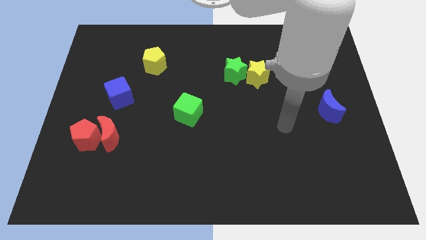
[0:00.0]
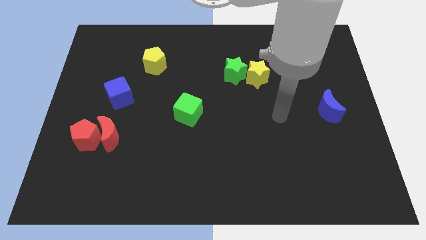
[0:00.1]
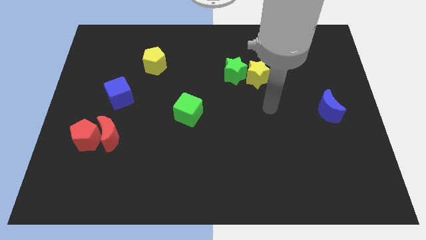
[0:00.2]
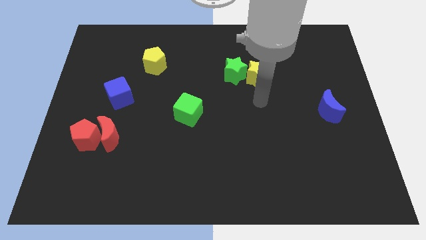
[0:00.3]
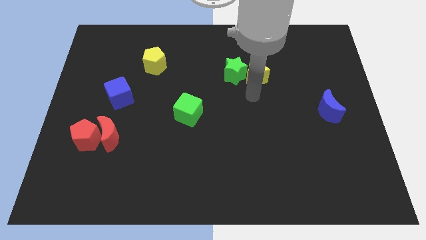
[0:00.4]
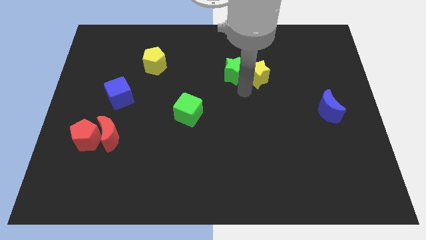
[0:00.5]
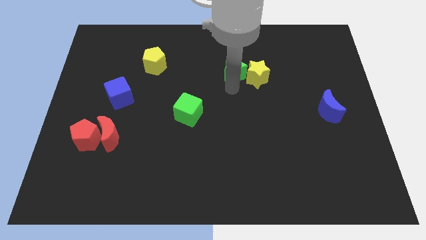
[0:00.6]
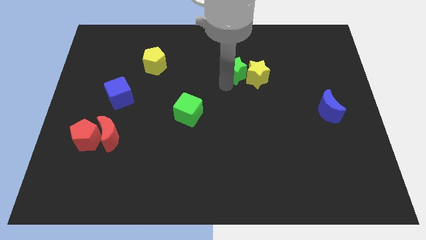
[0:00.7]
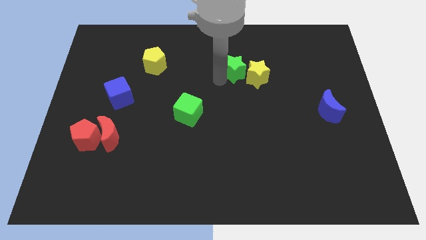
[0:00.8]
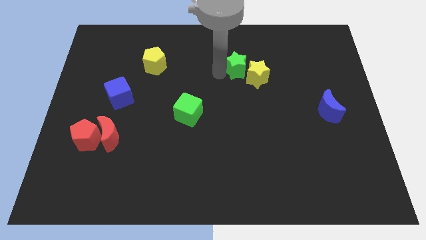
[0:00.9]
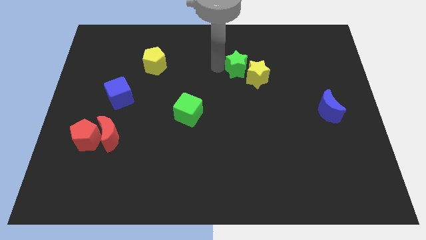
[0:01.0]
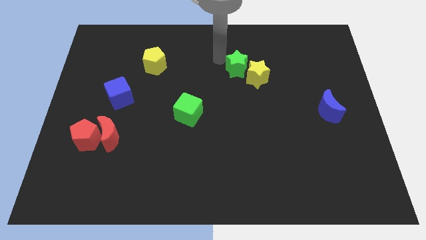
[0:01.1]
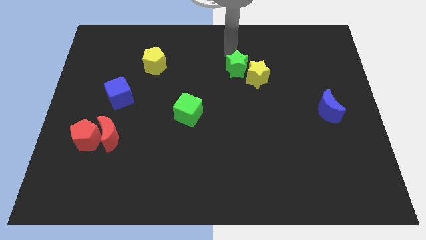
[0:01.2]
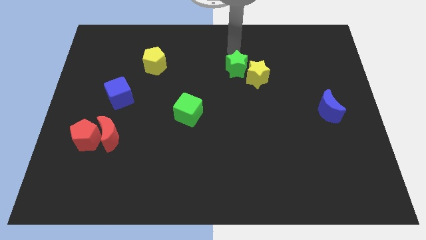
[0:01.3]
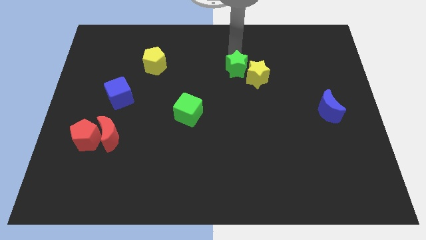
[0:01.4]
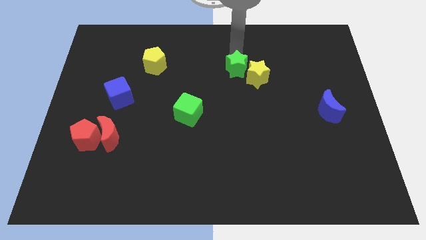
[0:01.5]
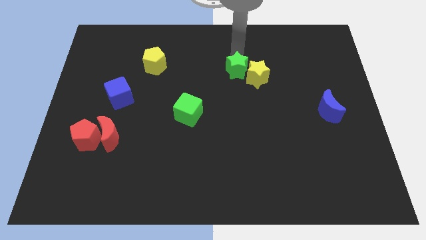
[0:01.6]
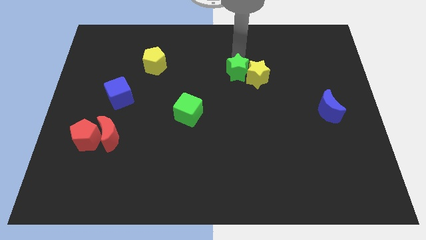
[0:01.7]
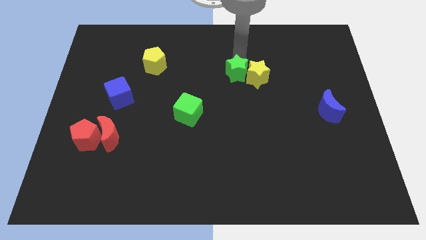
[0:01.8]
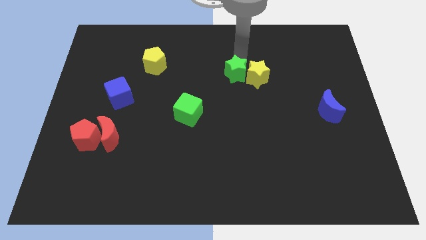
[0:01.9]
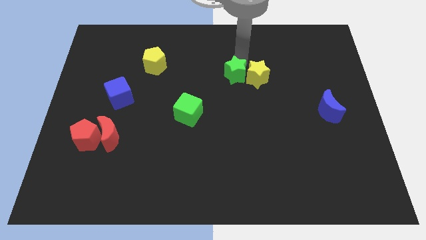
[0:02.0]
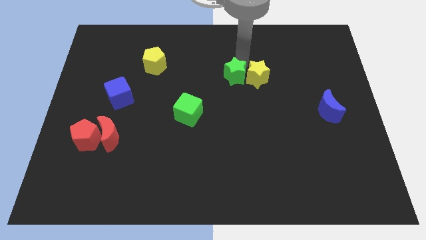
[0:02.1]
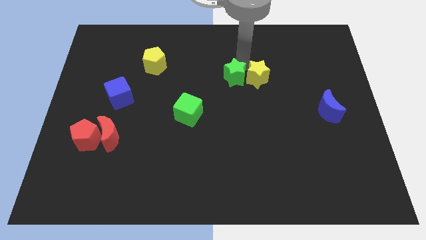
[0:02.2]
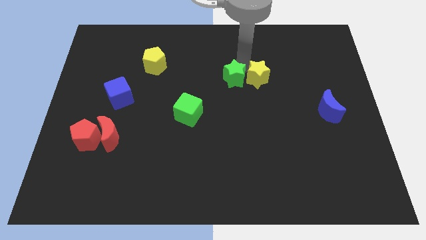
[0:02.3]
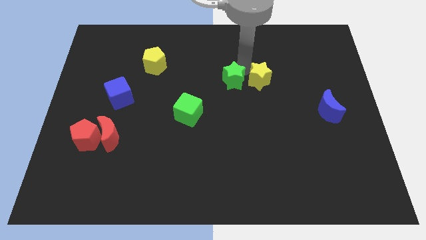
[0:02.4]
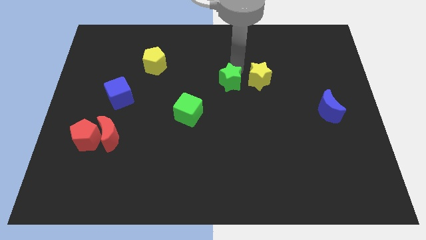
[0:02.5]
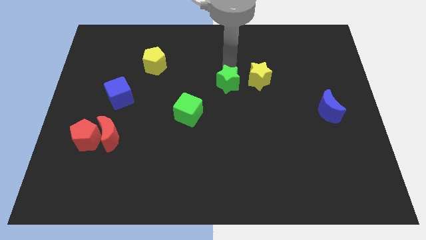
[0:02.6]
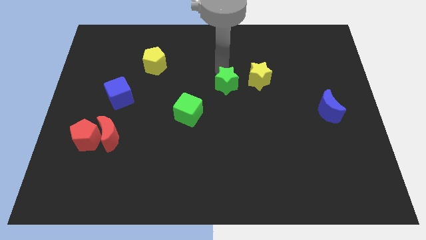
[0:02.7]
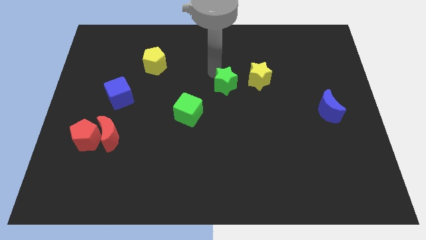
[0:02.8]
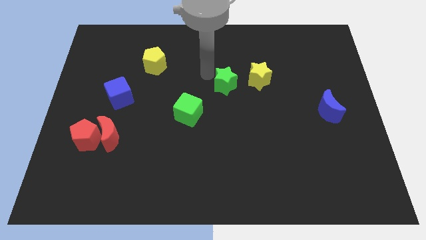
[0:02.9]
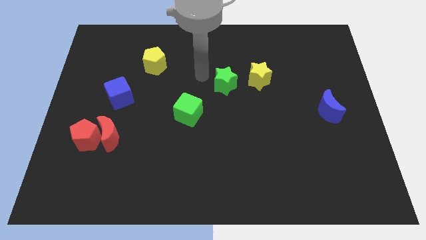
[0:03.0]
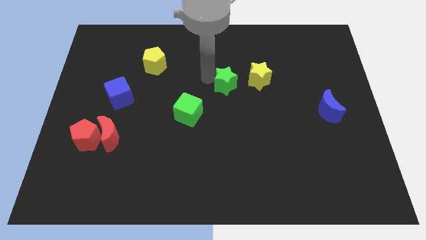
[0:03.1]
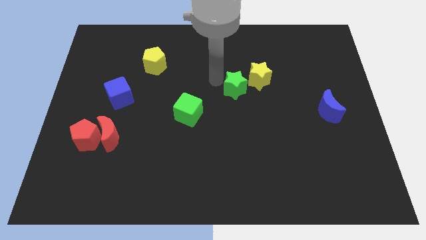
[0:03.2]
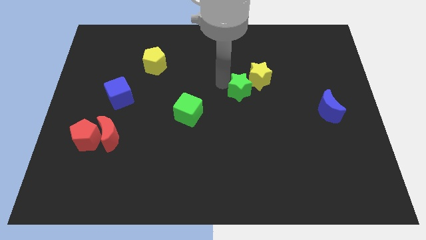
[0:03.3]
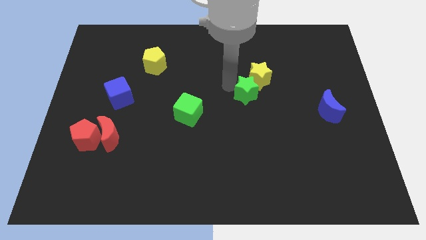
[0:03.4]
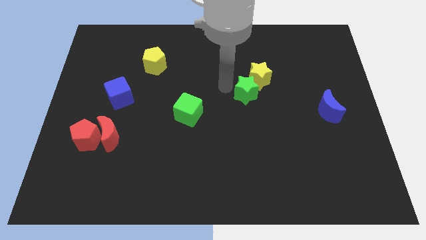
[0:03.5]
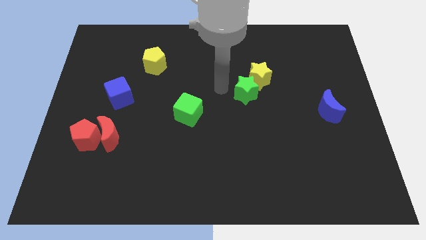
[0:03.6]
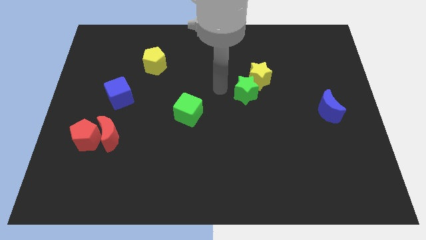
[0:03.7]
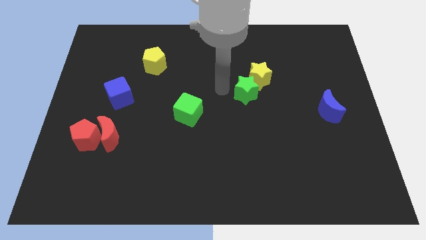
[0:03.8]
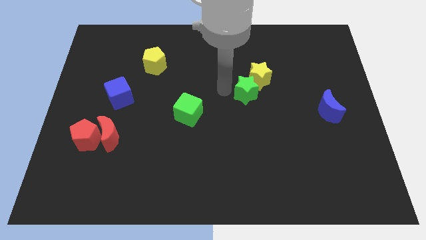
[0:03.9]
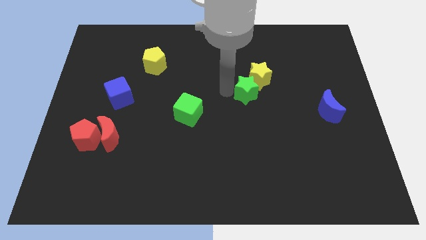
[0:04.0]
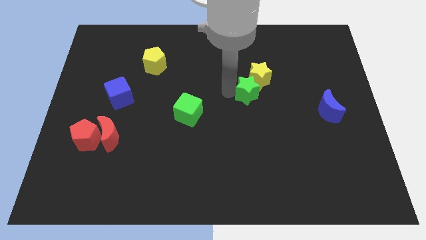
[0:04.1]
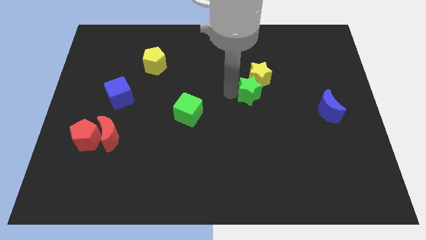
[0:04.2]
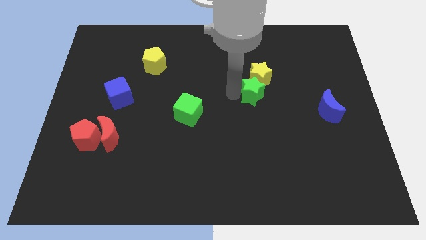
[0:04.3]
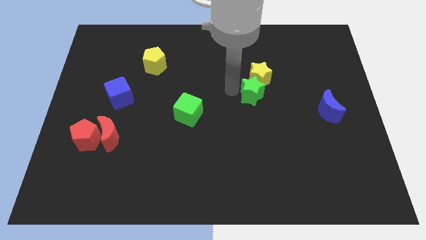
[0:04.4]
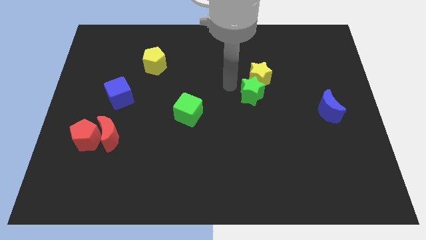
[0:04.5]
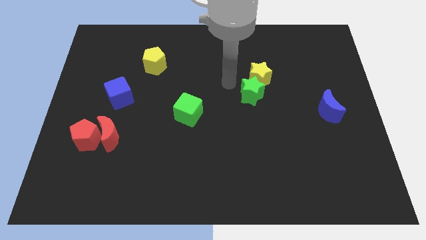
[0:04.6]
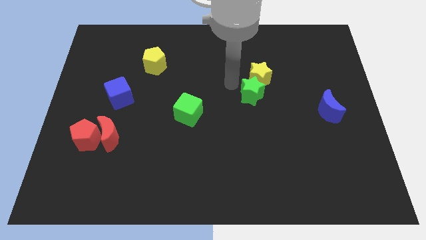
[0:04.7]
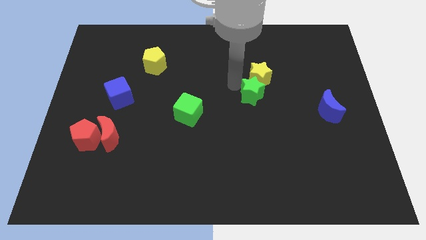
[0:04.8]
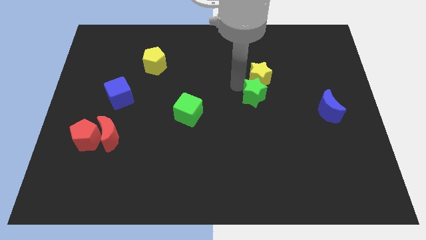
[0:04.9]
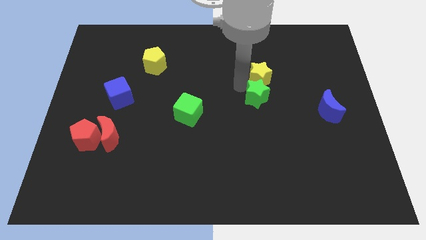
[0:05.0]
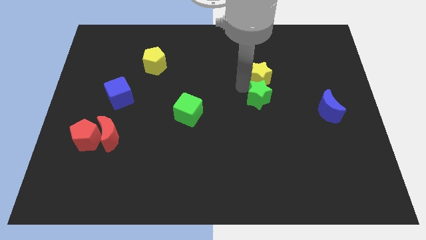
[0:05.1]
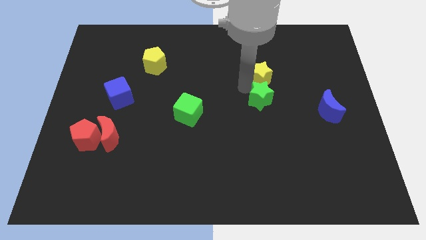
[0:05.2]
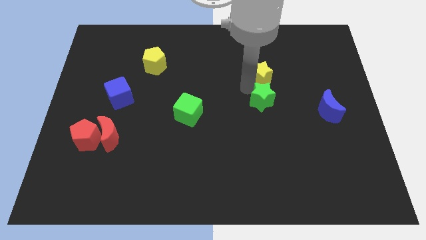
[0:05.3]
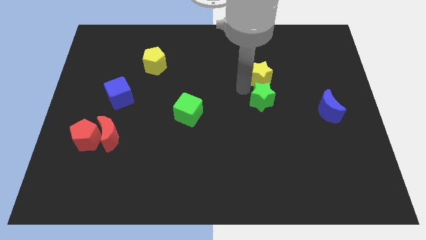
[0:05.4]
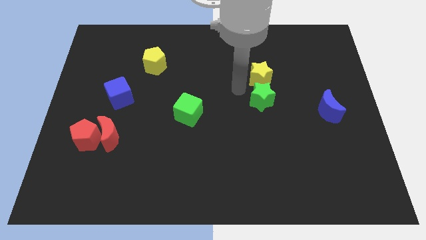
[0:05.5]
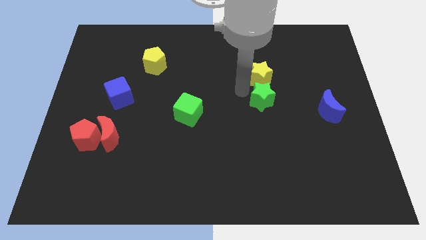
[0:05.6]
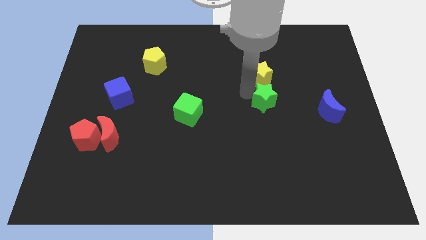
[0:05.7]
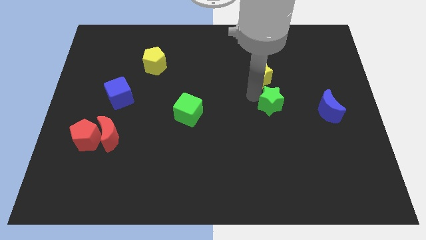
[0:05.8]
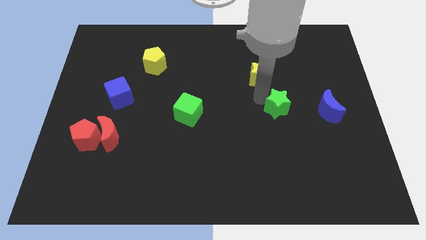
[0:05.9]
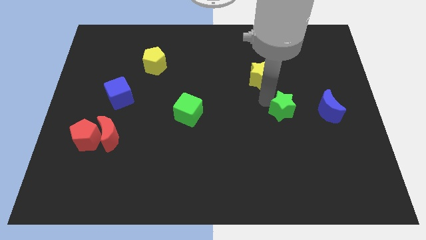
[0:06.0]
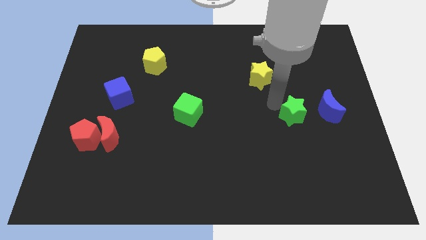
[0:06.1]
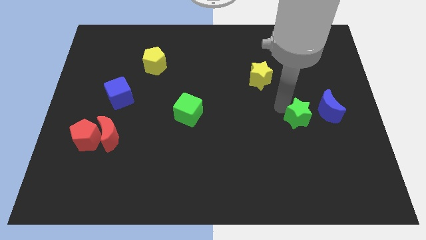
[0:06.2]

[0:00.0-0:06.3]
push the green star down and to the right diagonally

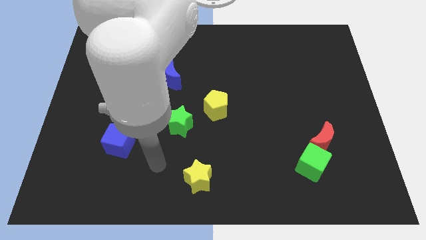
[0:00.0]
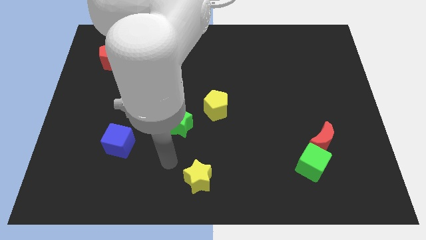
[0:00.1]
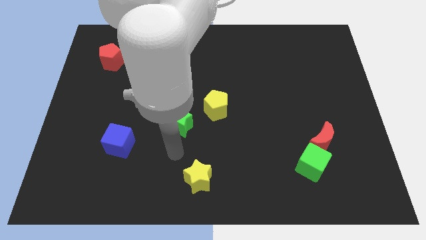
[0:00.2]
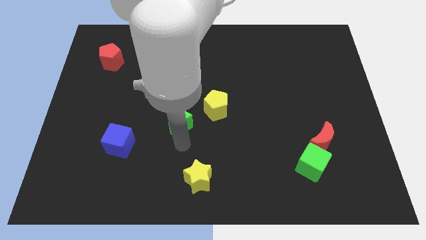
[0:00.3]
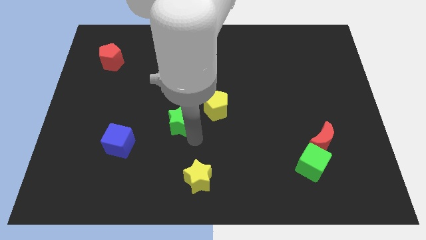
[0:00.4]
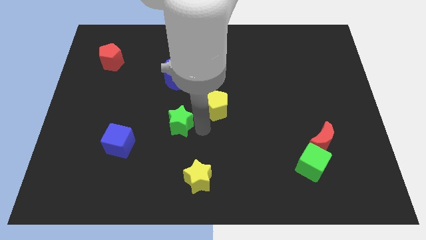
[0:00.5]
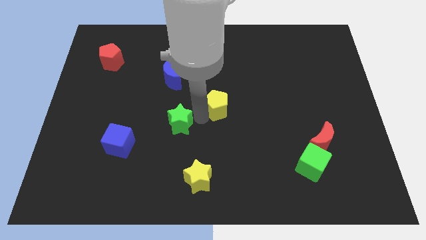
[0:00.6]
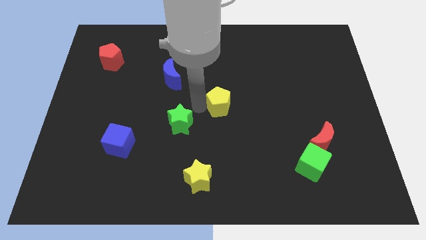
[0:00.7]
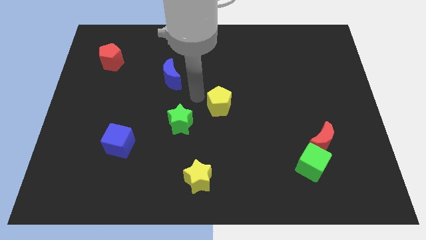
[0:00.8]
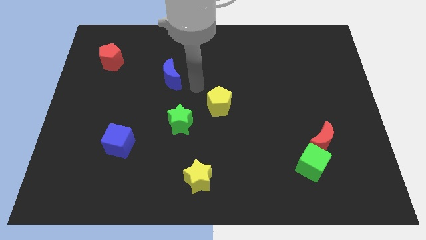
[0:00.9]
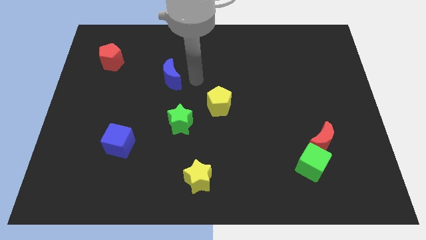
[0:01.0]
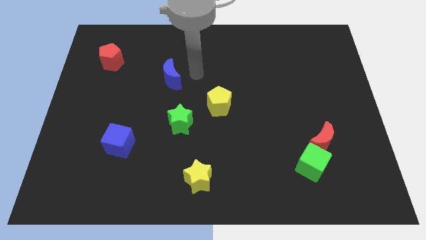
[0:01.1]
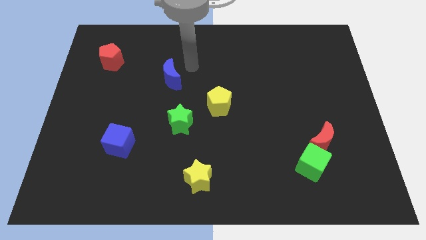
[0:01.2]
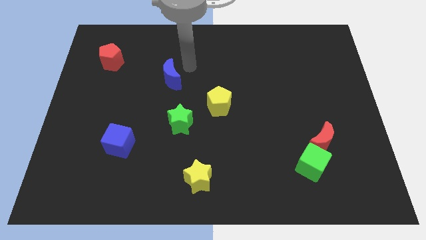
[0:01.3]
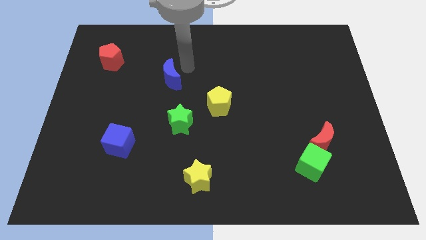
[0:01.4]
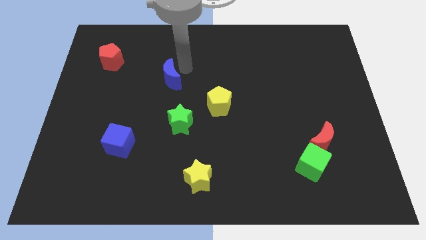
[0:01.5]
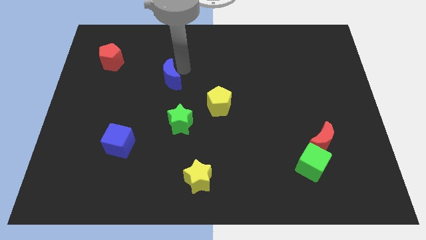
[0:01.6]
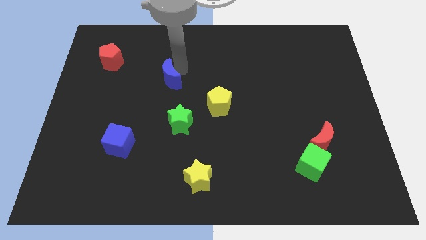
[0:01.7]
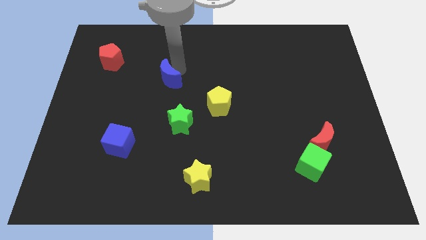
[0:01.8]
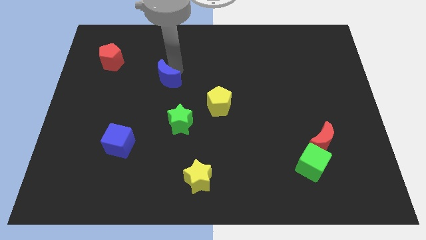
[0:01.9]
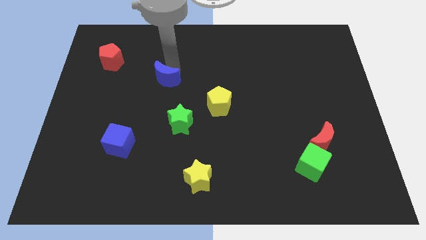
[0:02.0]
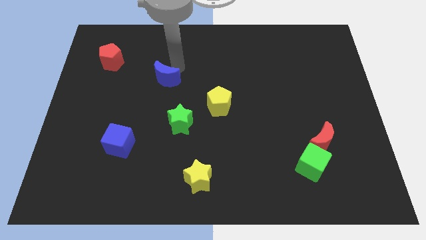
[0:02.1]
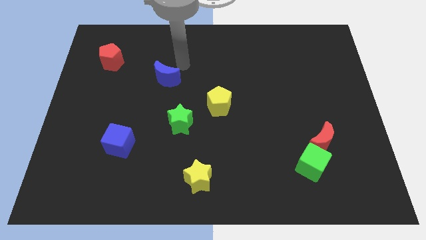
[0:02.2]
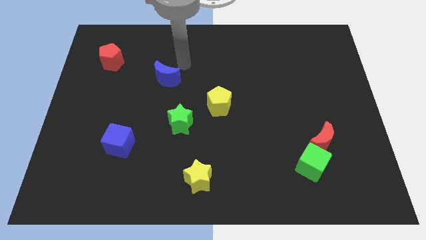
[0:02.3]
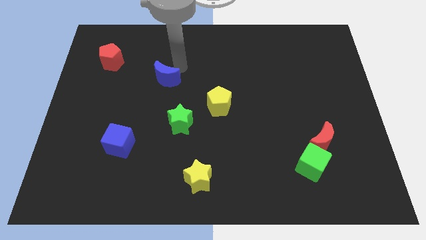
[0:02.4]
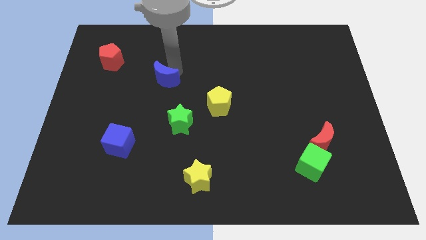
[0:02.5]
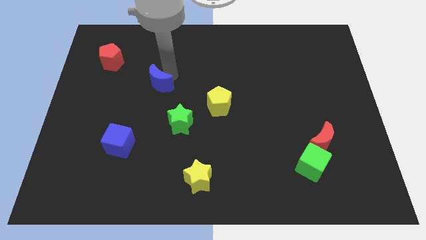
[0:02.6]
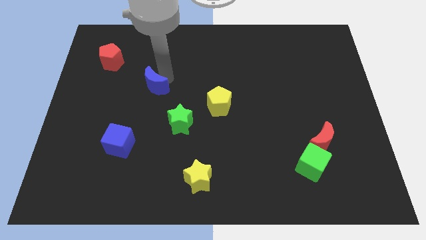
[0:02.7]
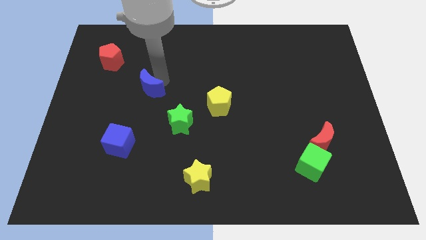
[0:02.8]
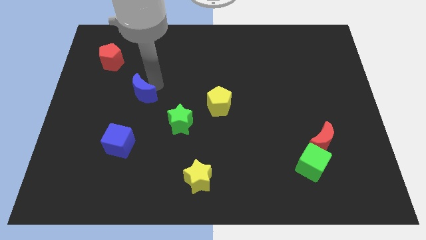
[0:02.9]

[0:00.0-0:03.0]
push the blue moon a bit downwards and left
